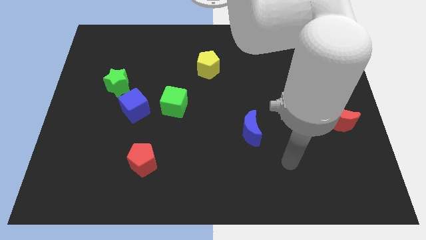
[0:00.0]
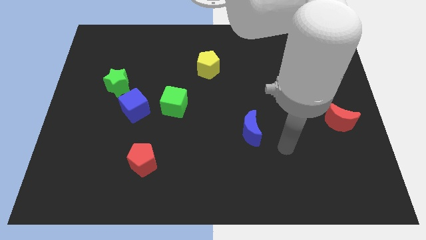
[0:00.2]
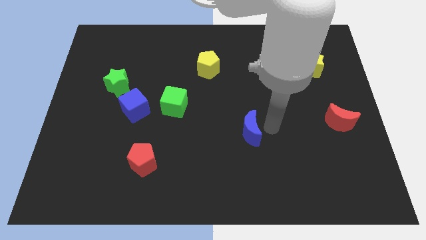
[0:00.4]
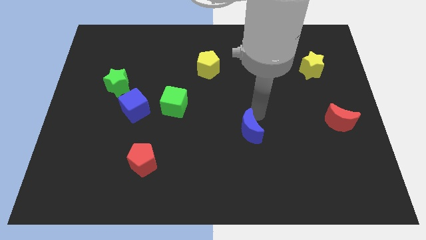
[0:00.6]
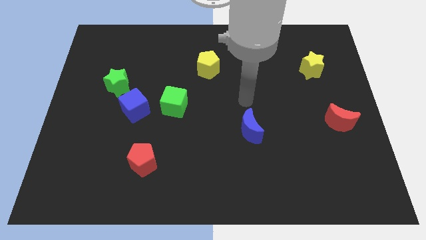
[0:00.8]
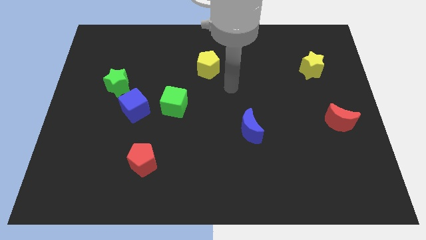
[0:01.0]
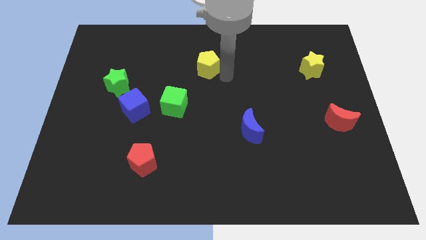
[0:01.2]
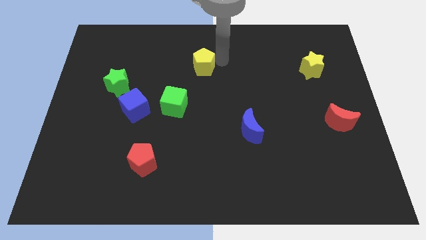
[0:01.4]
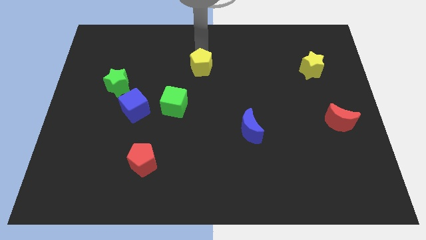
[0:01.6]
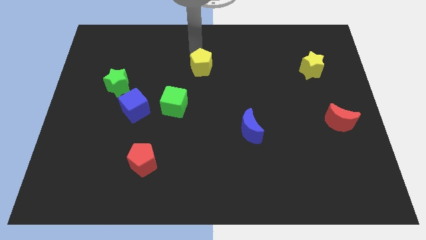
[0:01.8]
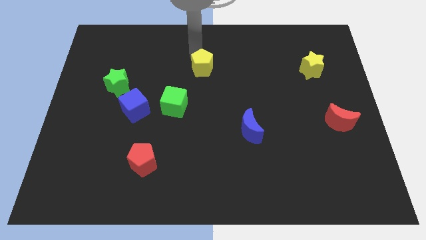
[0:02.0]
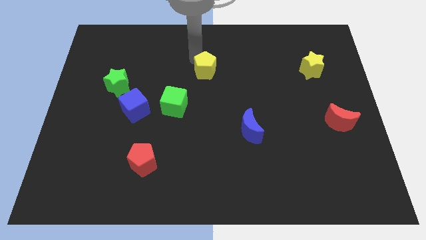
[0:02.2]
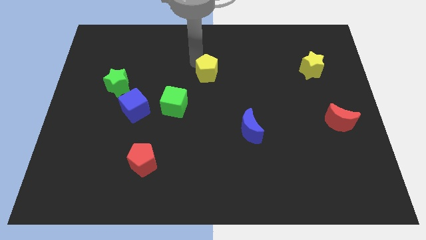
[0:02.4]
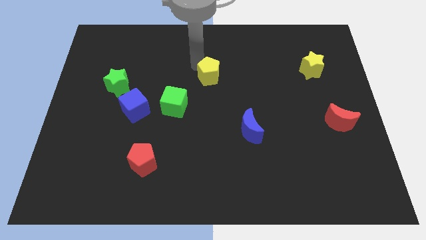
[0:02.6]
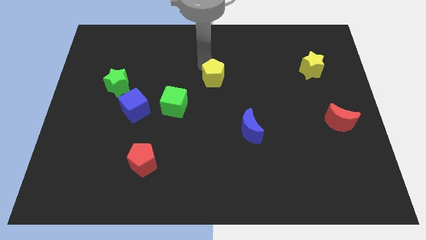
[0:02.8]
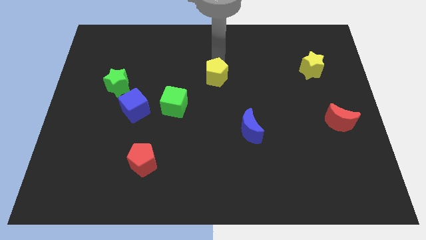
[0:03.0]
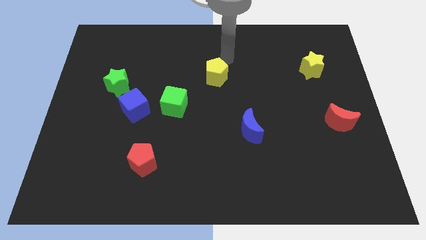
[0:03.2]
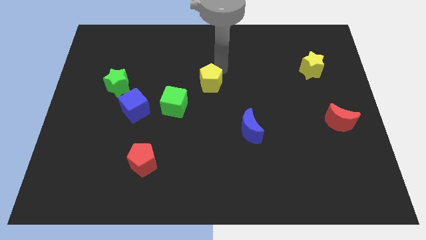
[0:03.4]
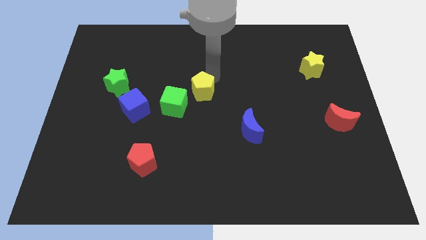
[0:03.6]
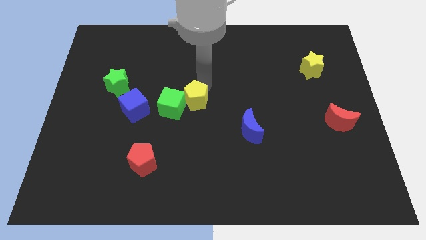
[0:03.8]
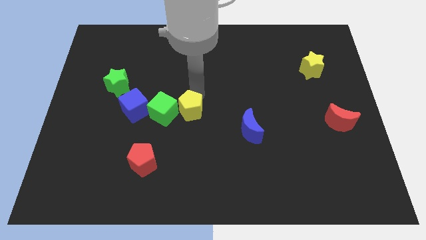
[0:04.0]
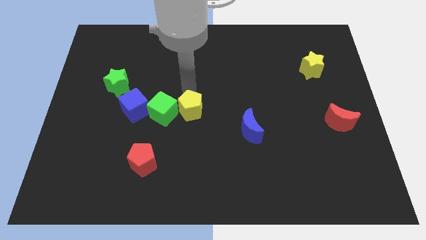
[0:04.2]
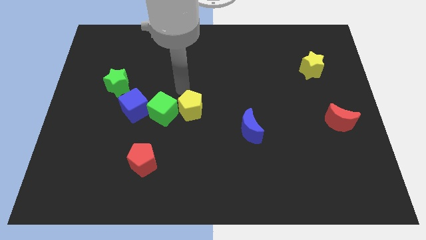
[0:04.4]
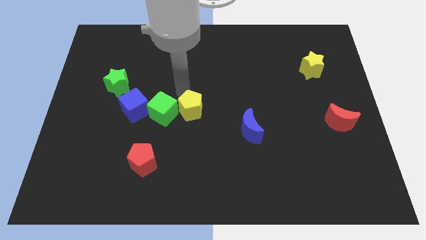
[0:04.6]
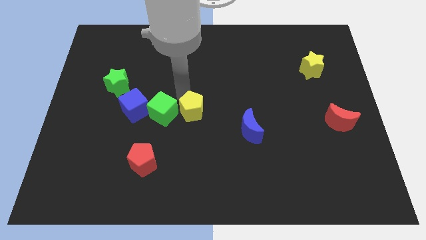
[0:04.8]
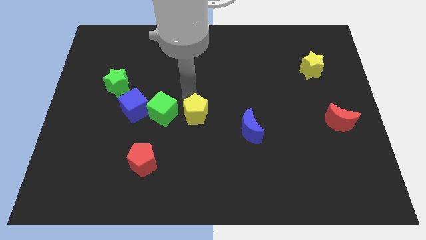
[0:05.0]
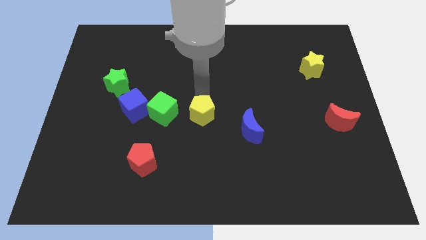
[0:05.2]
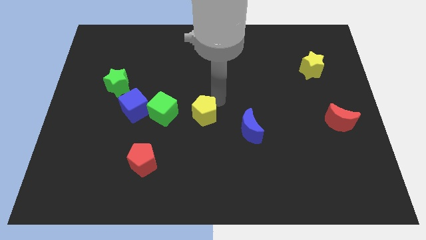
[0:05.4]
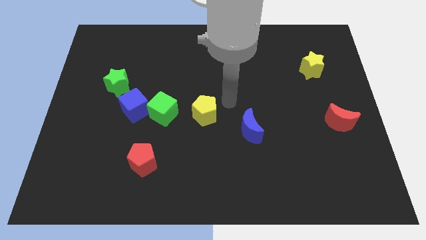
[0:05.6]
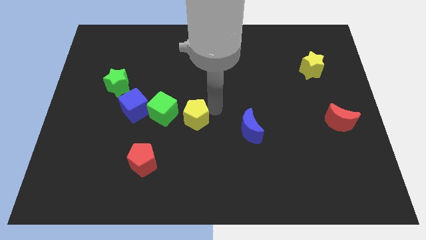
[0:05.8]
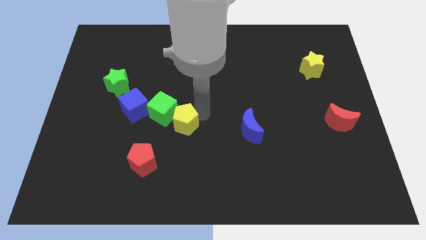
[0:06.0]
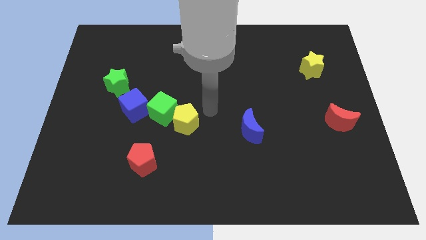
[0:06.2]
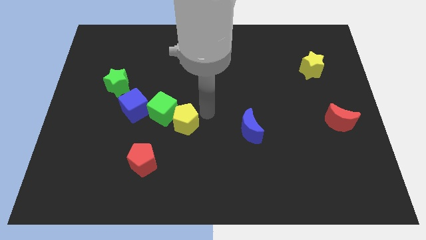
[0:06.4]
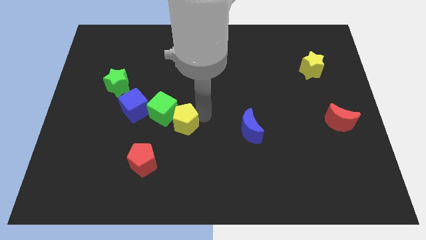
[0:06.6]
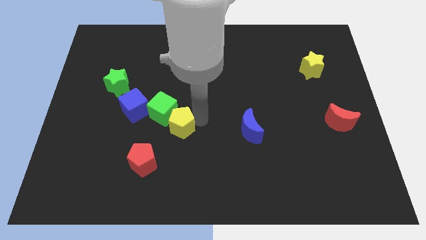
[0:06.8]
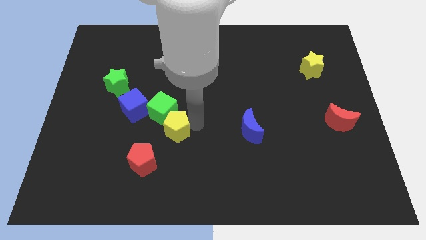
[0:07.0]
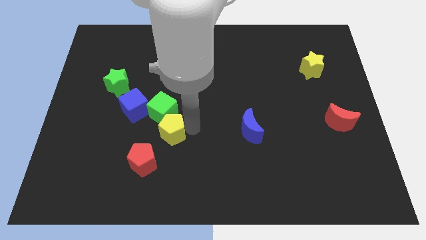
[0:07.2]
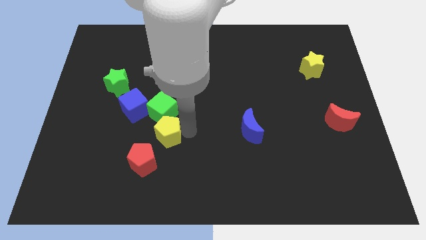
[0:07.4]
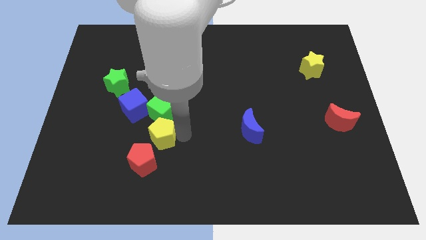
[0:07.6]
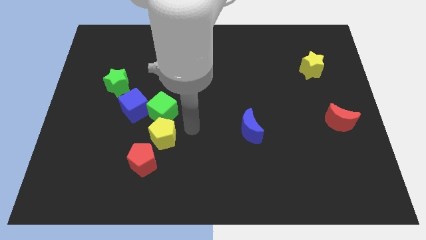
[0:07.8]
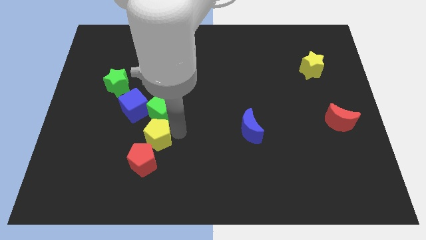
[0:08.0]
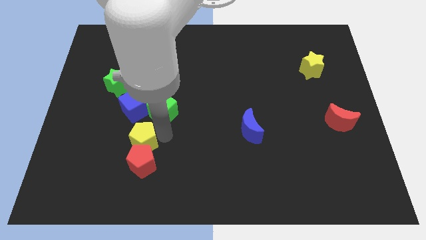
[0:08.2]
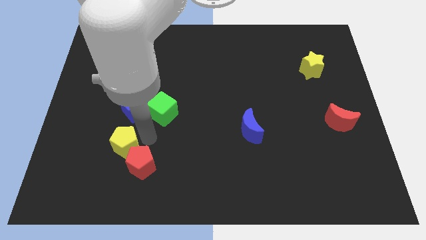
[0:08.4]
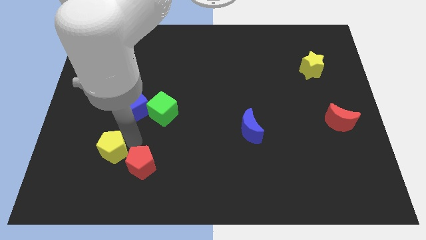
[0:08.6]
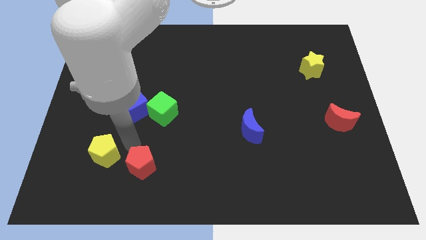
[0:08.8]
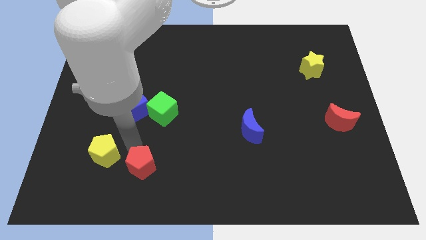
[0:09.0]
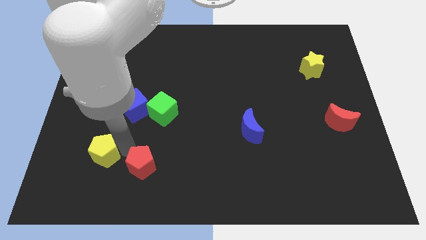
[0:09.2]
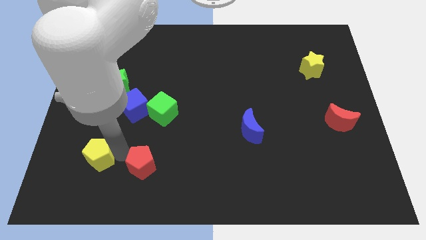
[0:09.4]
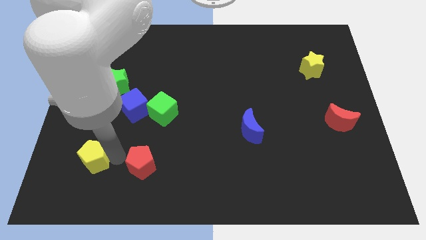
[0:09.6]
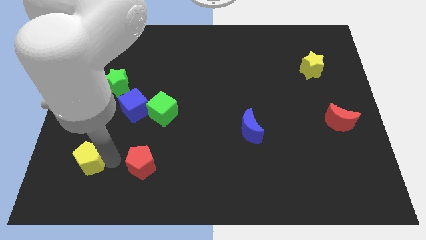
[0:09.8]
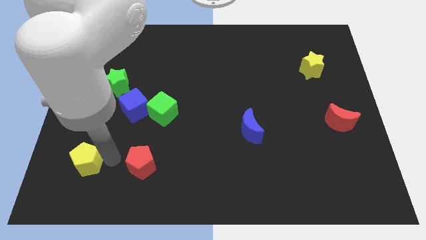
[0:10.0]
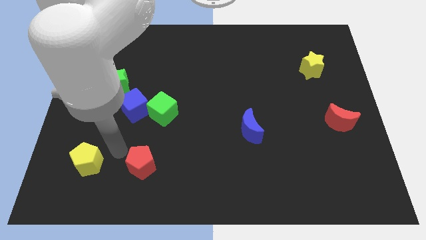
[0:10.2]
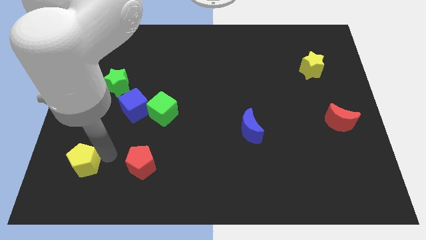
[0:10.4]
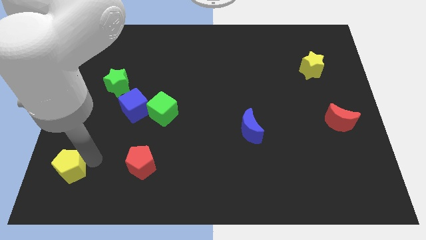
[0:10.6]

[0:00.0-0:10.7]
move the yellow pentagon to the bottom left

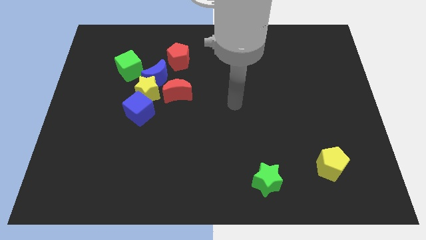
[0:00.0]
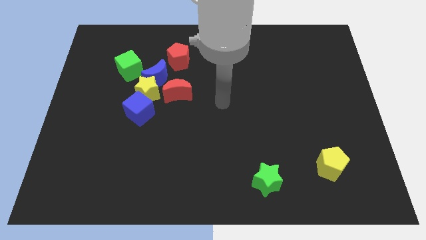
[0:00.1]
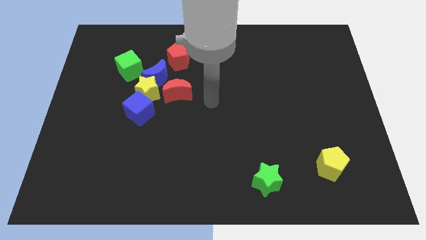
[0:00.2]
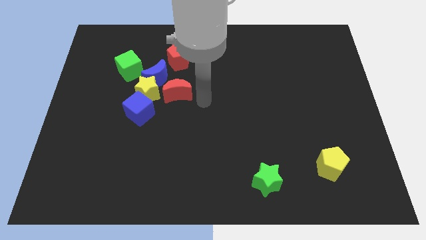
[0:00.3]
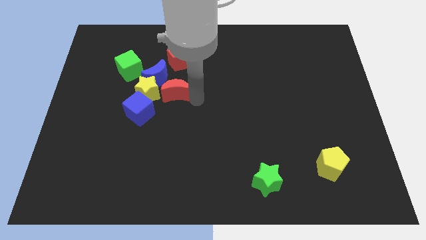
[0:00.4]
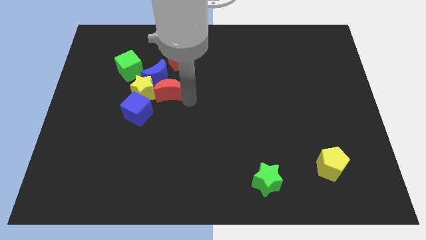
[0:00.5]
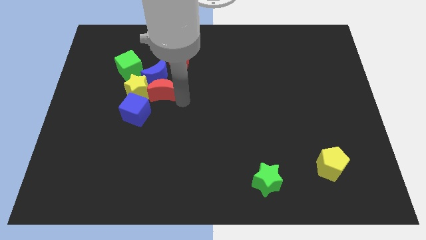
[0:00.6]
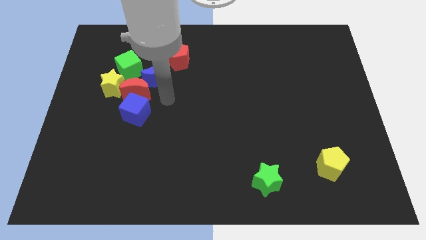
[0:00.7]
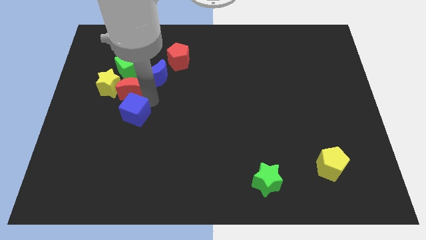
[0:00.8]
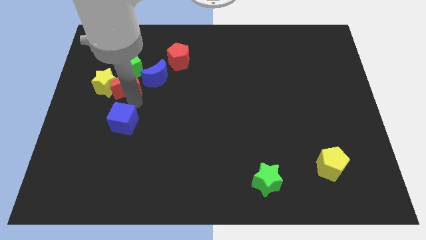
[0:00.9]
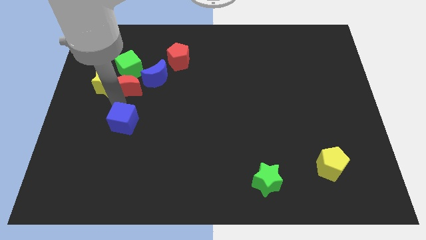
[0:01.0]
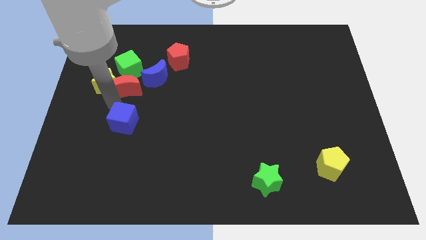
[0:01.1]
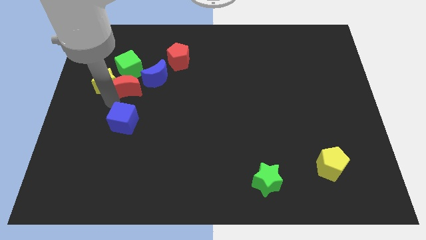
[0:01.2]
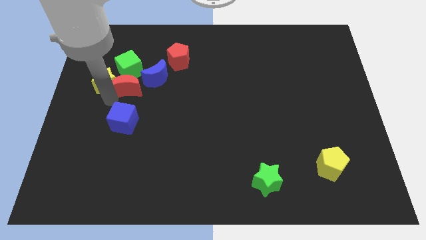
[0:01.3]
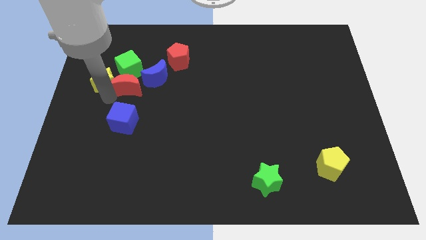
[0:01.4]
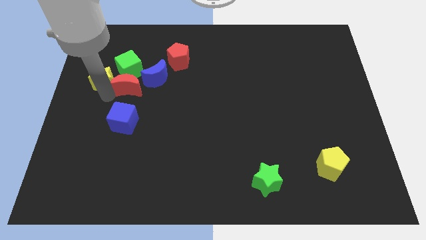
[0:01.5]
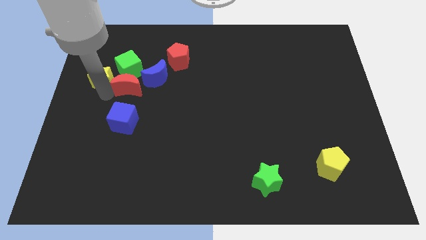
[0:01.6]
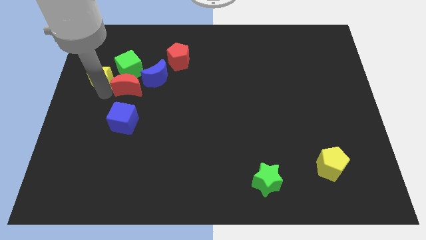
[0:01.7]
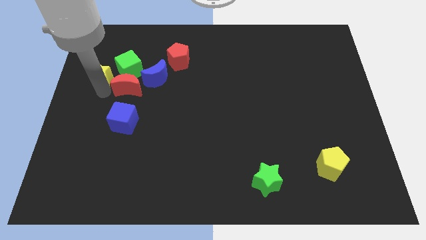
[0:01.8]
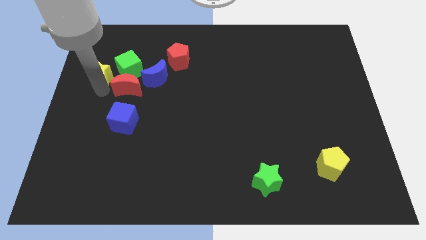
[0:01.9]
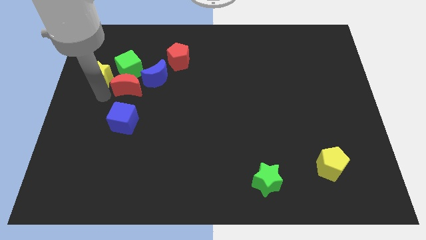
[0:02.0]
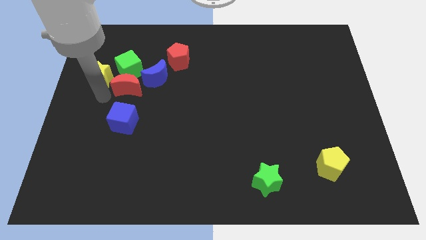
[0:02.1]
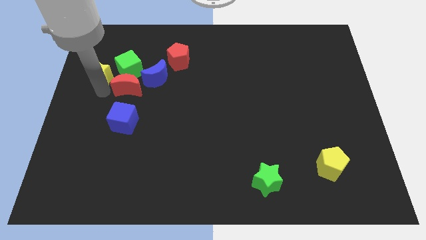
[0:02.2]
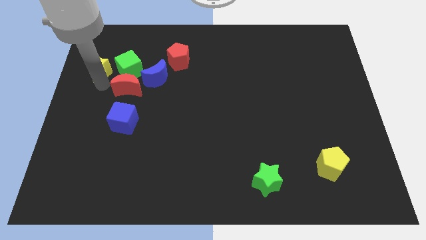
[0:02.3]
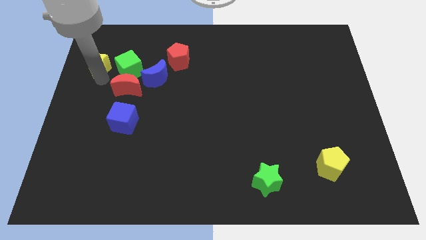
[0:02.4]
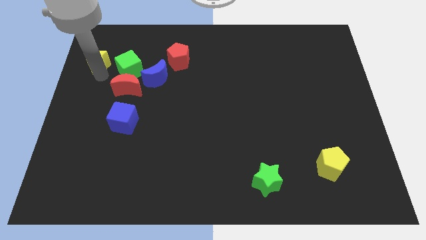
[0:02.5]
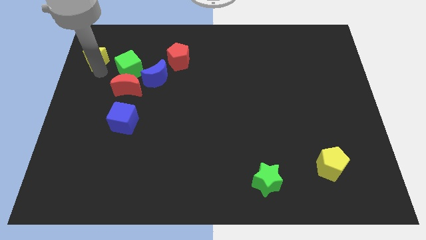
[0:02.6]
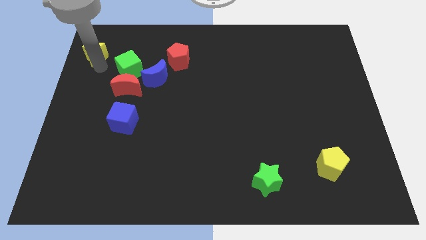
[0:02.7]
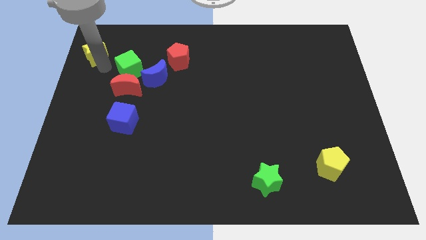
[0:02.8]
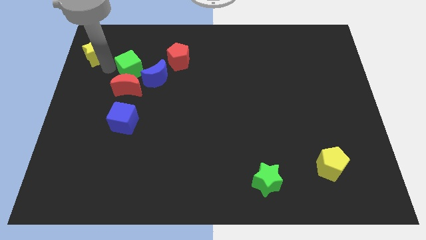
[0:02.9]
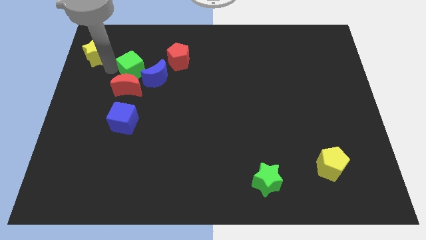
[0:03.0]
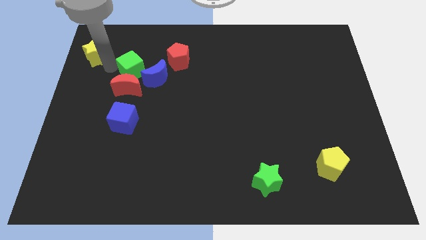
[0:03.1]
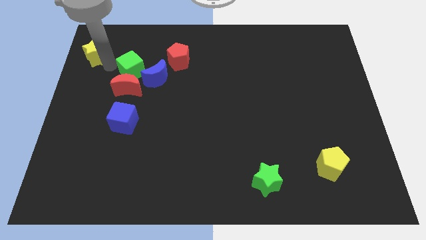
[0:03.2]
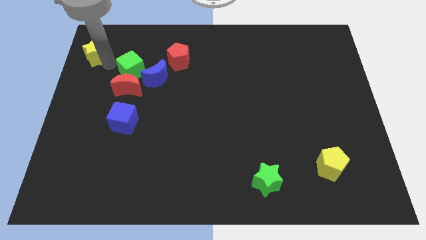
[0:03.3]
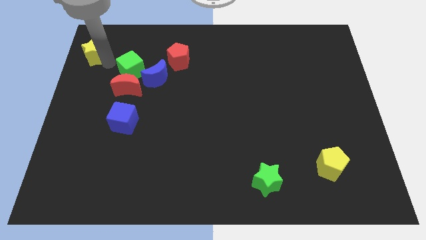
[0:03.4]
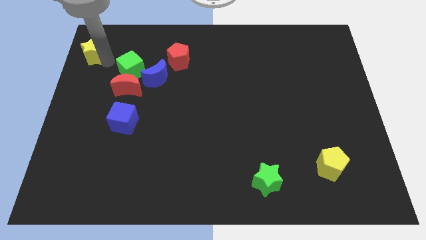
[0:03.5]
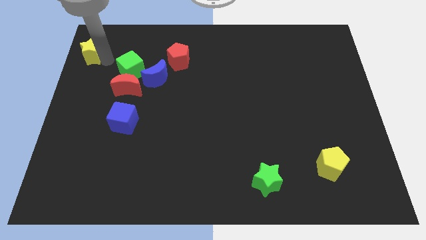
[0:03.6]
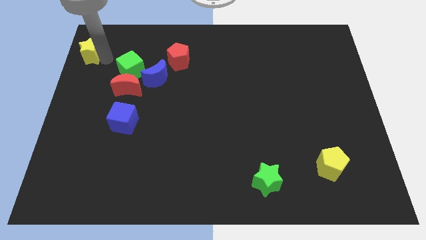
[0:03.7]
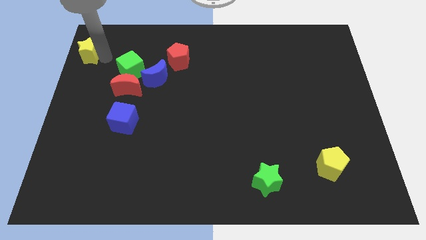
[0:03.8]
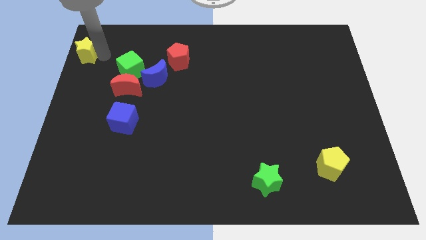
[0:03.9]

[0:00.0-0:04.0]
push the yellow star to the upper left corner
